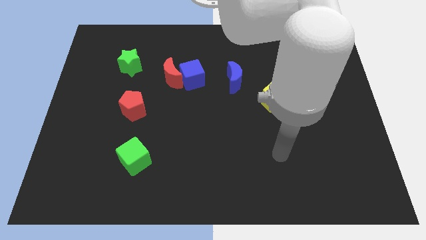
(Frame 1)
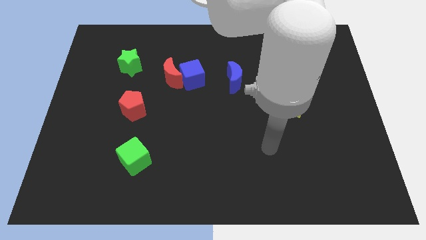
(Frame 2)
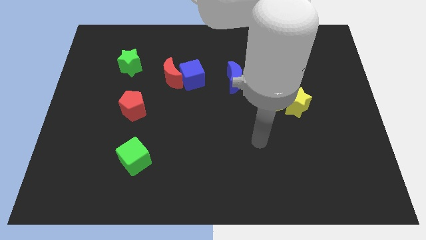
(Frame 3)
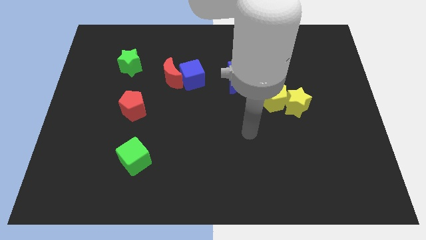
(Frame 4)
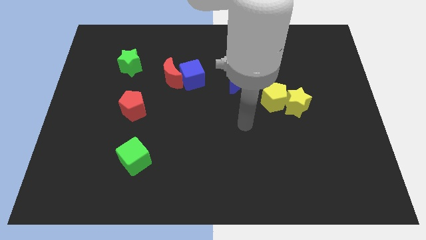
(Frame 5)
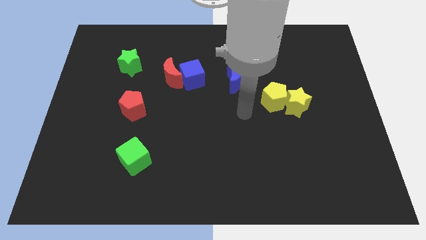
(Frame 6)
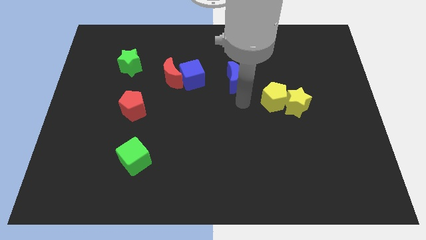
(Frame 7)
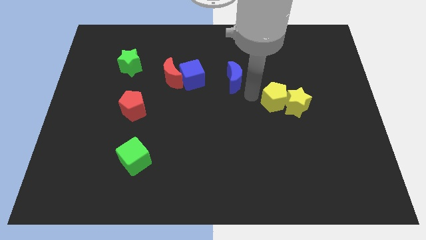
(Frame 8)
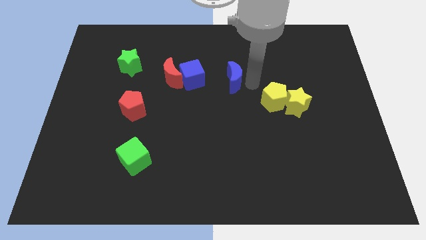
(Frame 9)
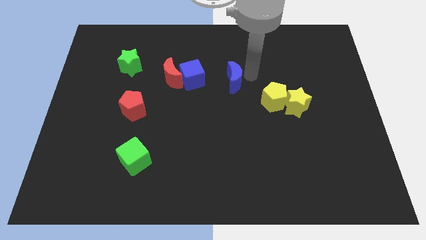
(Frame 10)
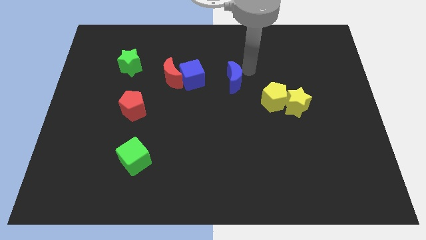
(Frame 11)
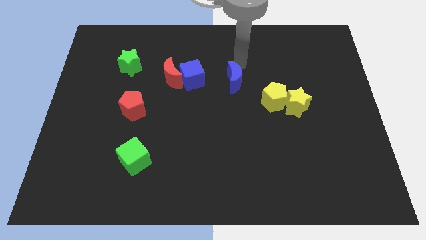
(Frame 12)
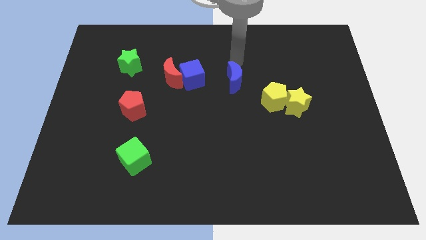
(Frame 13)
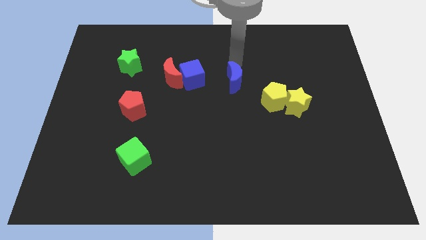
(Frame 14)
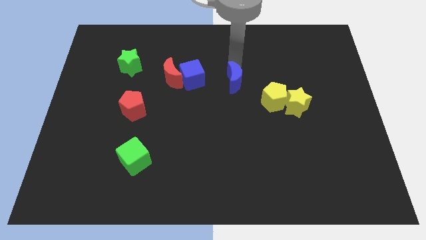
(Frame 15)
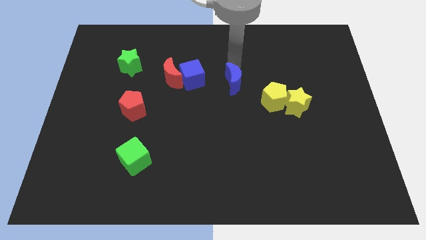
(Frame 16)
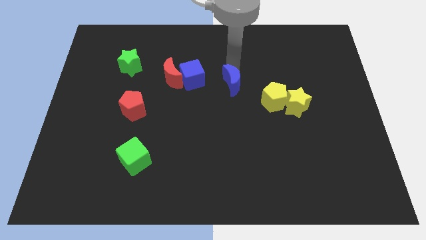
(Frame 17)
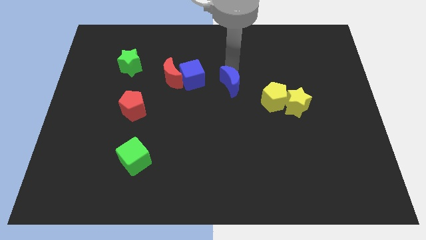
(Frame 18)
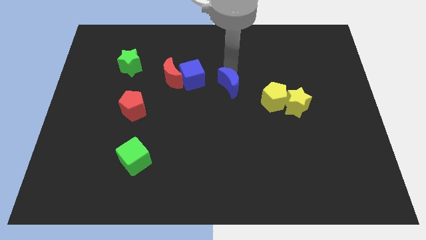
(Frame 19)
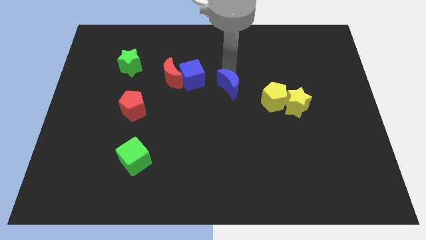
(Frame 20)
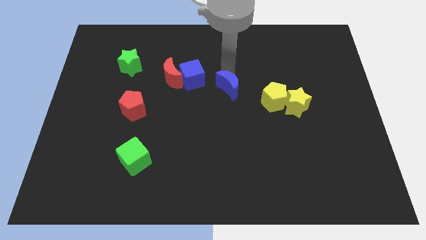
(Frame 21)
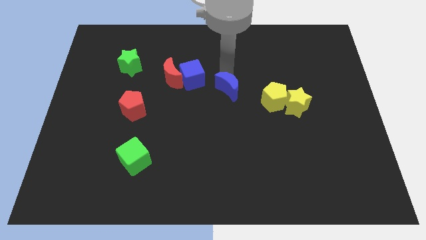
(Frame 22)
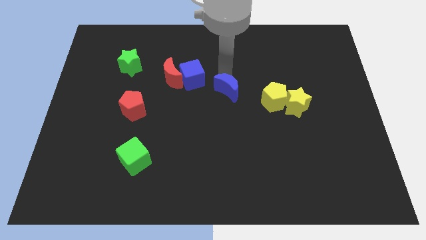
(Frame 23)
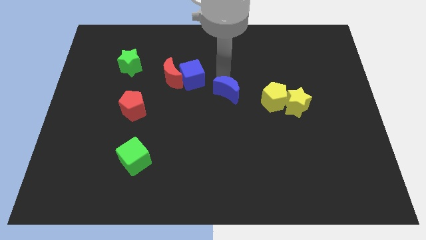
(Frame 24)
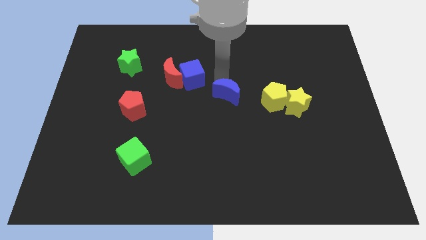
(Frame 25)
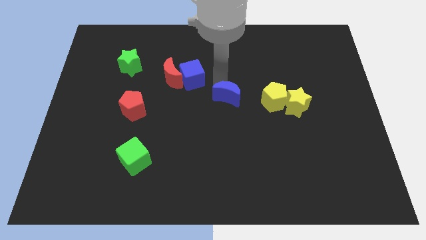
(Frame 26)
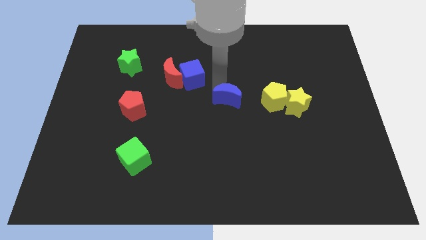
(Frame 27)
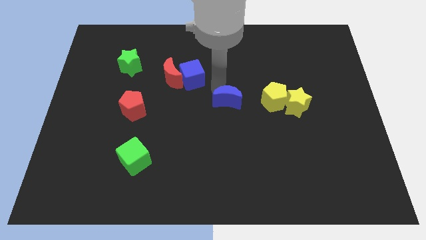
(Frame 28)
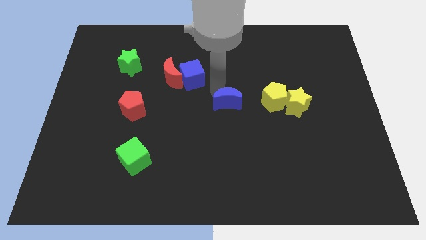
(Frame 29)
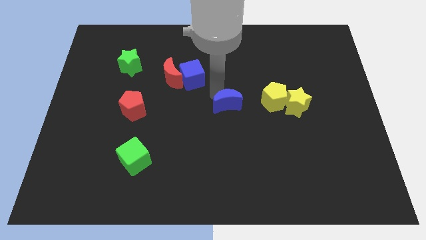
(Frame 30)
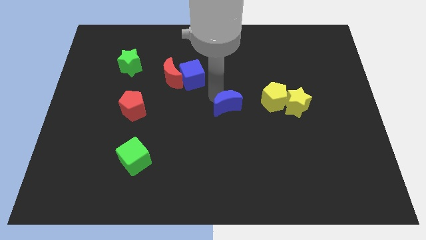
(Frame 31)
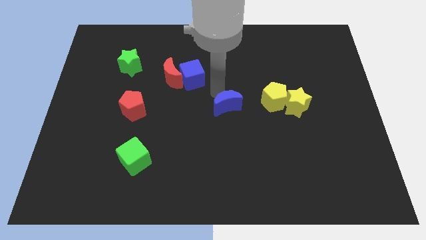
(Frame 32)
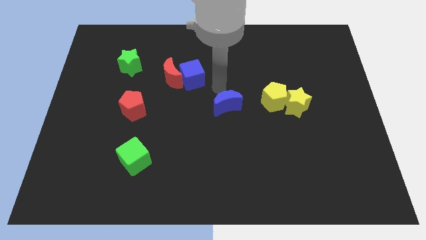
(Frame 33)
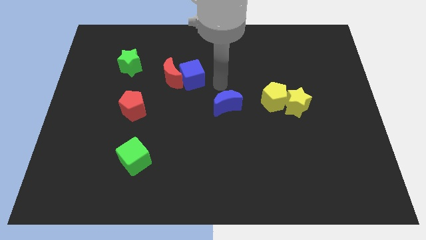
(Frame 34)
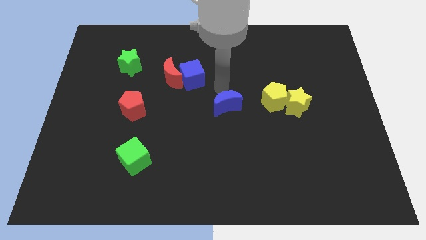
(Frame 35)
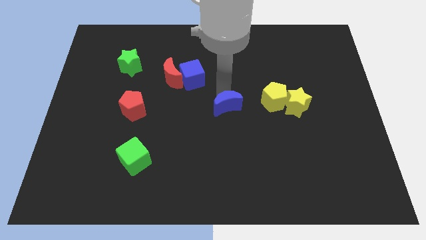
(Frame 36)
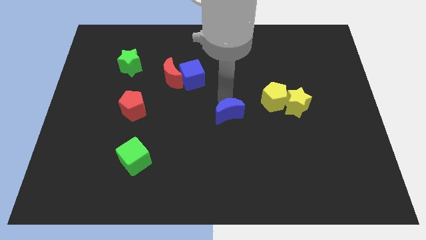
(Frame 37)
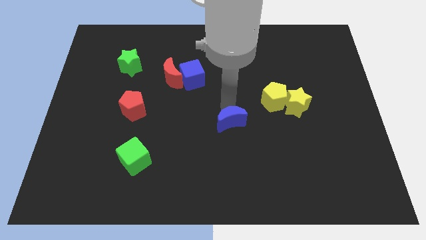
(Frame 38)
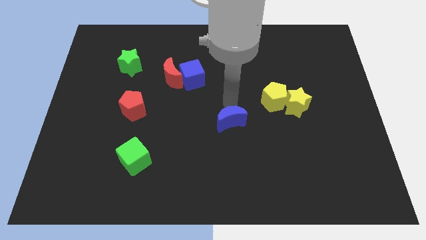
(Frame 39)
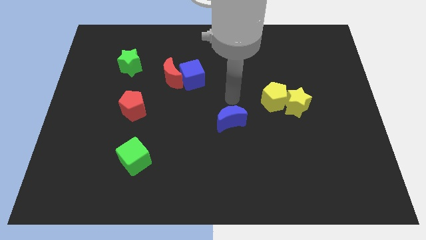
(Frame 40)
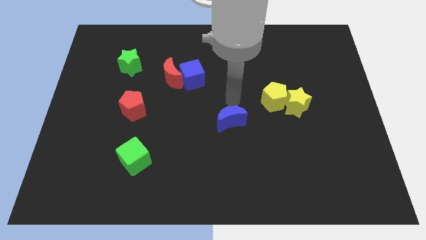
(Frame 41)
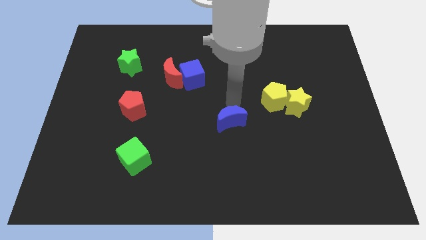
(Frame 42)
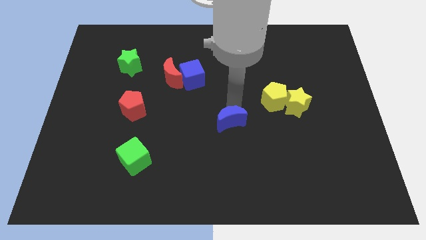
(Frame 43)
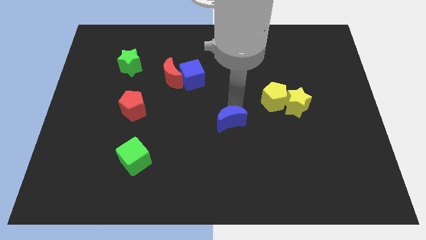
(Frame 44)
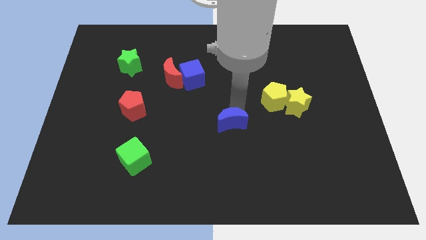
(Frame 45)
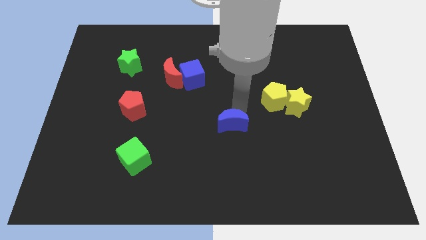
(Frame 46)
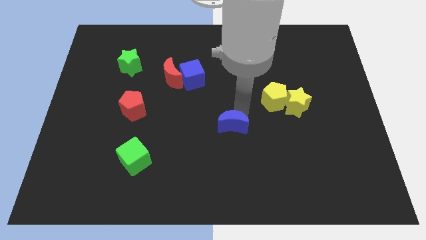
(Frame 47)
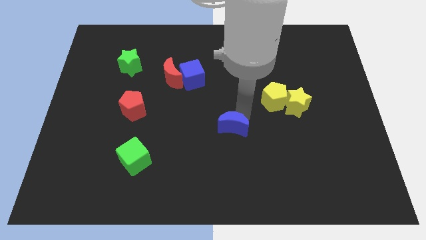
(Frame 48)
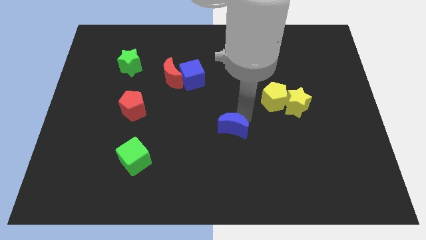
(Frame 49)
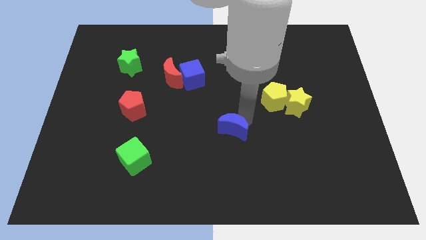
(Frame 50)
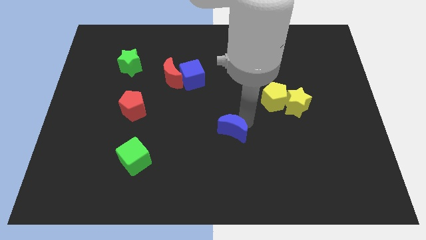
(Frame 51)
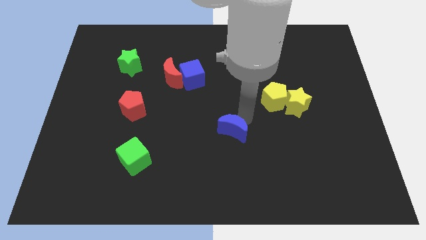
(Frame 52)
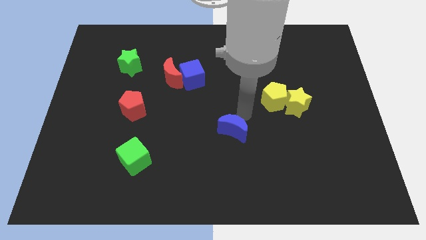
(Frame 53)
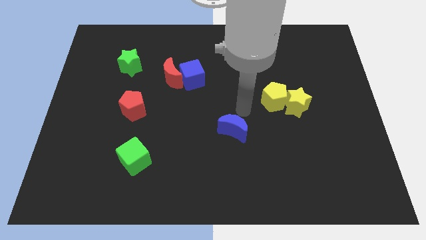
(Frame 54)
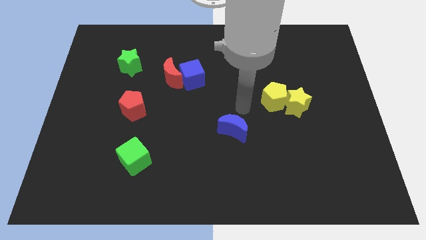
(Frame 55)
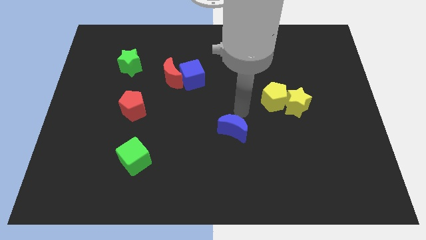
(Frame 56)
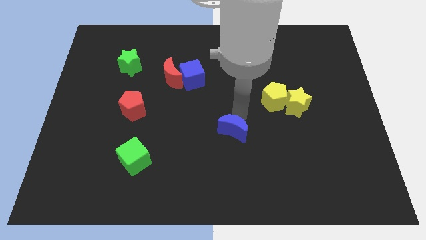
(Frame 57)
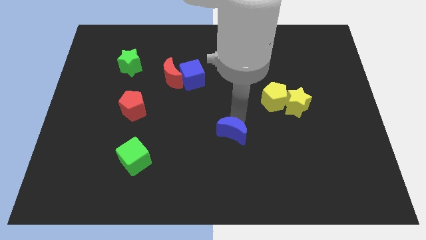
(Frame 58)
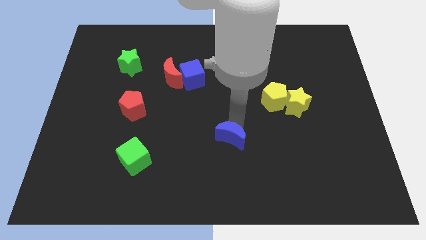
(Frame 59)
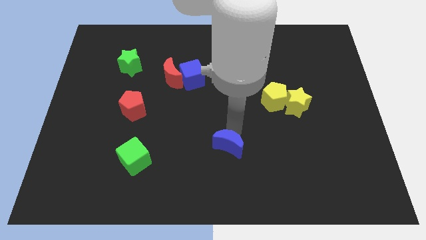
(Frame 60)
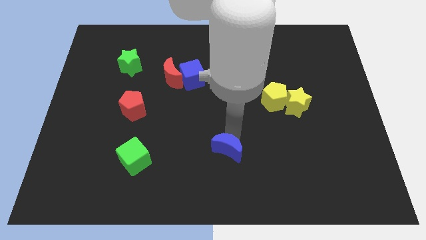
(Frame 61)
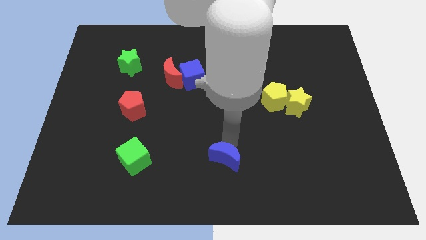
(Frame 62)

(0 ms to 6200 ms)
push the blue moon to the bottom side

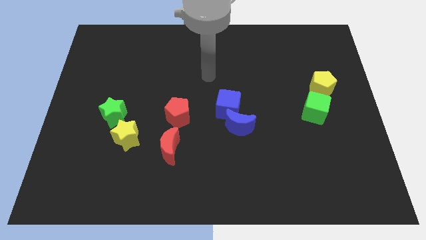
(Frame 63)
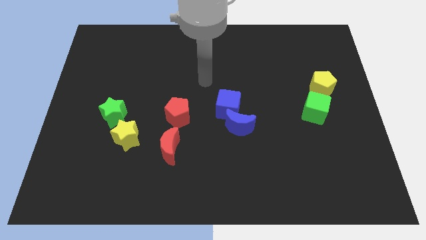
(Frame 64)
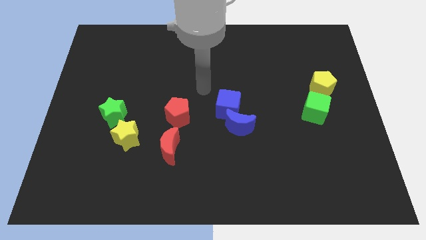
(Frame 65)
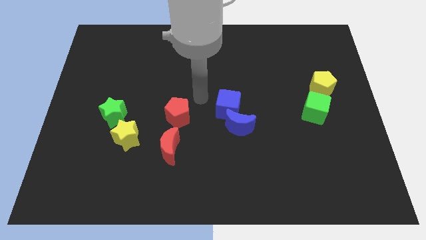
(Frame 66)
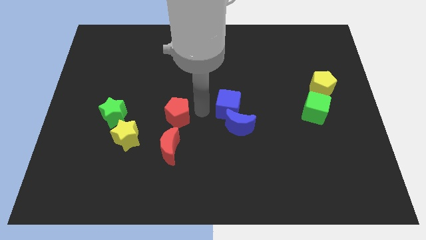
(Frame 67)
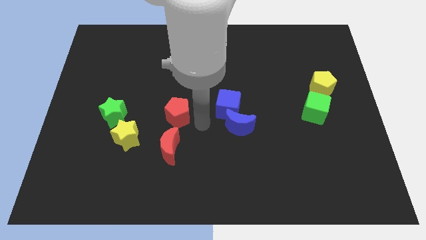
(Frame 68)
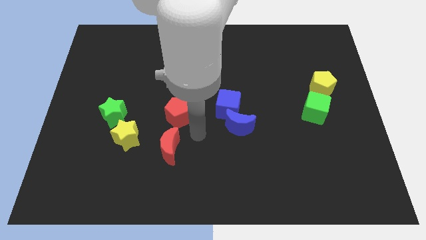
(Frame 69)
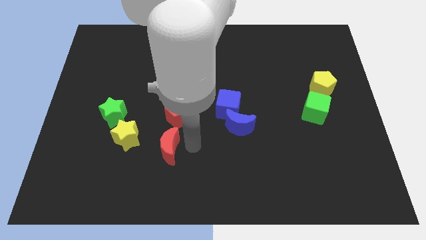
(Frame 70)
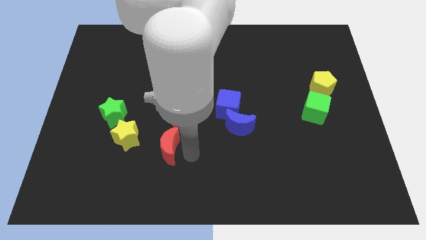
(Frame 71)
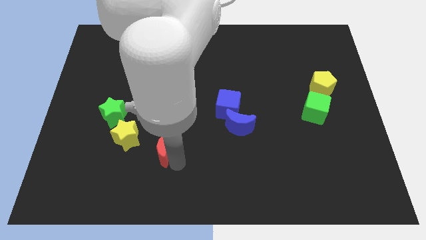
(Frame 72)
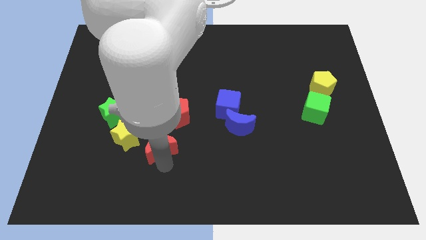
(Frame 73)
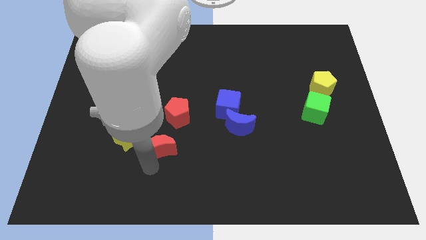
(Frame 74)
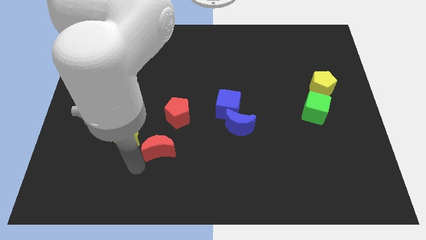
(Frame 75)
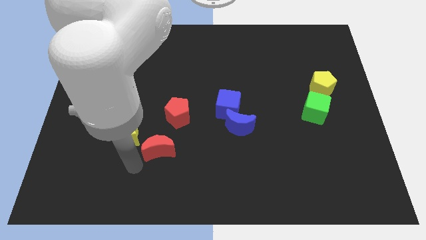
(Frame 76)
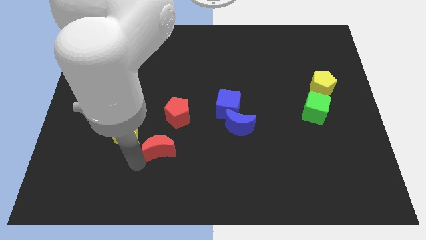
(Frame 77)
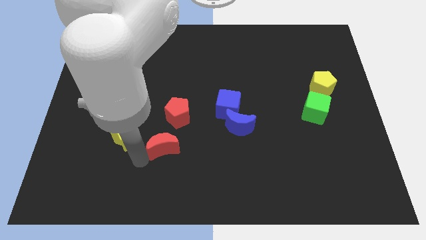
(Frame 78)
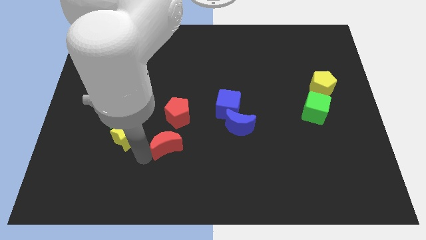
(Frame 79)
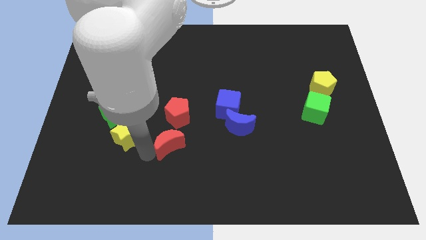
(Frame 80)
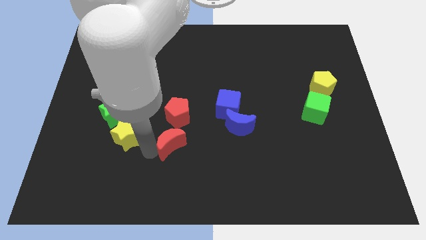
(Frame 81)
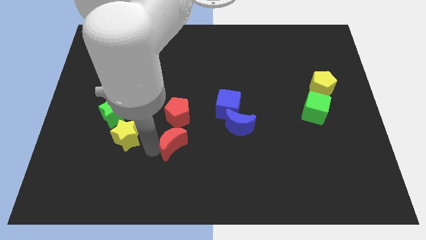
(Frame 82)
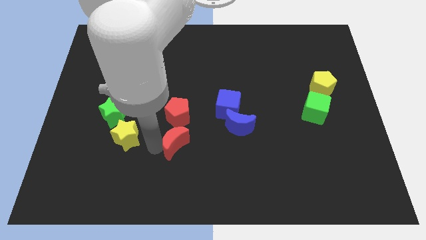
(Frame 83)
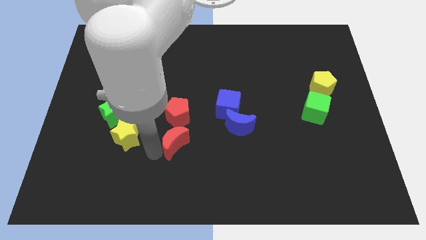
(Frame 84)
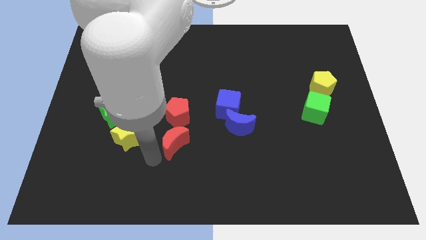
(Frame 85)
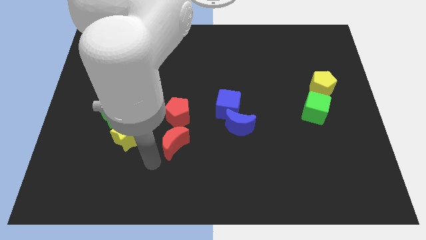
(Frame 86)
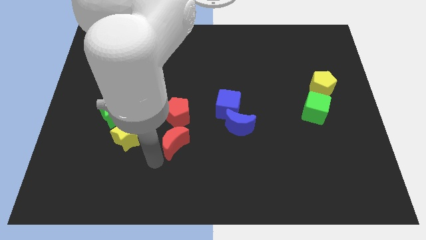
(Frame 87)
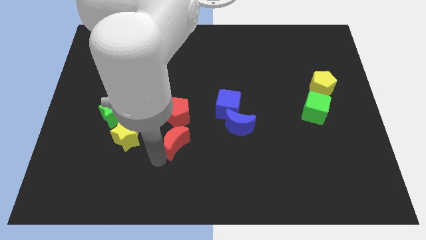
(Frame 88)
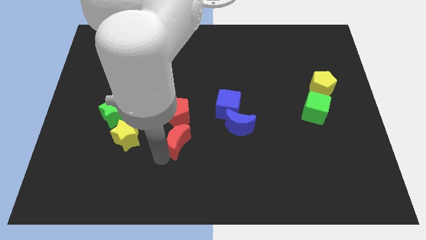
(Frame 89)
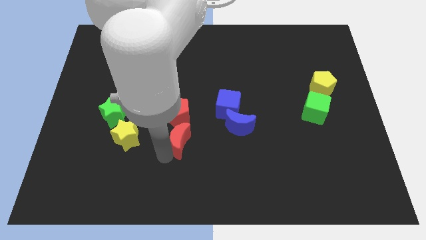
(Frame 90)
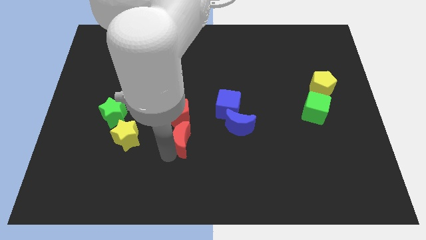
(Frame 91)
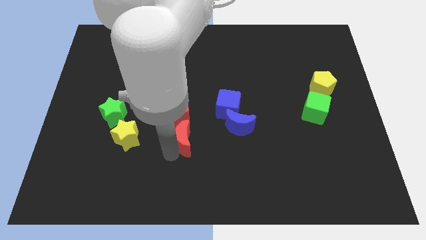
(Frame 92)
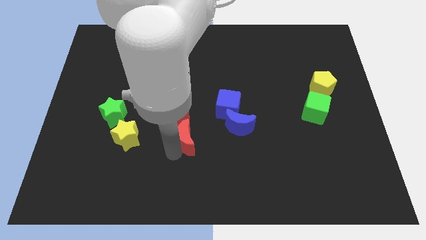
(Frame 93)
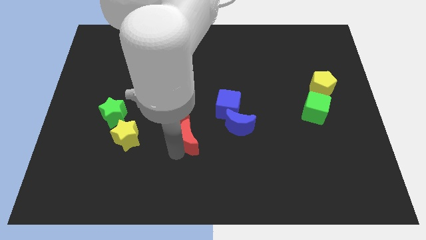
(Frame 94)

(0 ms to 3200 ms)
slide the red moon to the center
